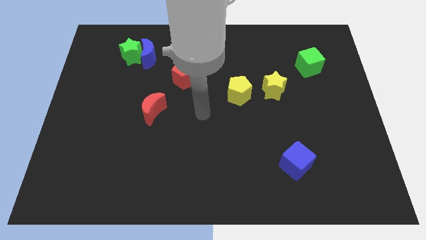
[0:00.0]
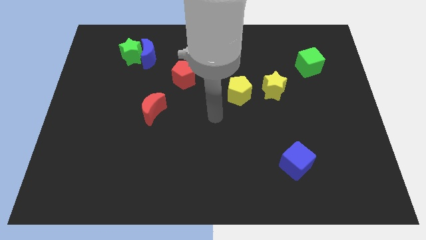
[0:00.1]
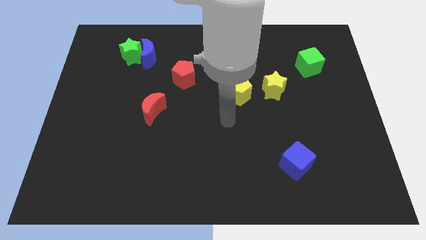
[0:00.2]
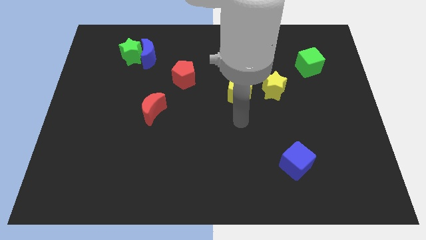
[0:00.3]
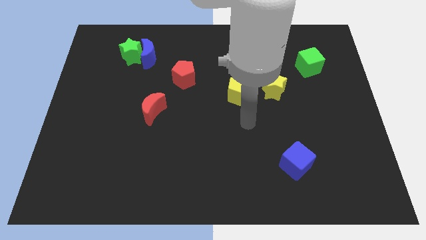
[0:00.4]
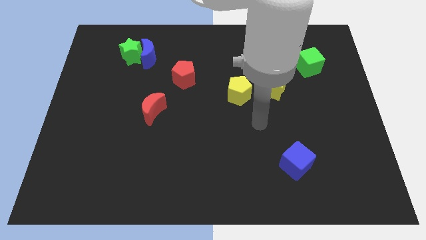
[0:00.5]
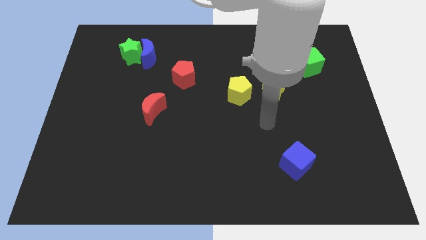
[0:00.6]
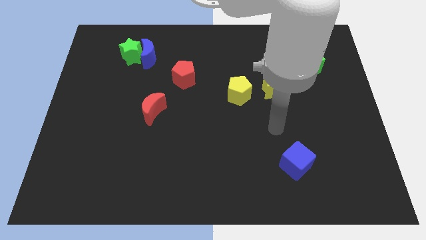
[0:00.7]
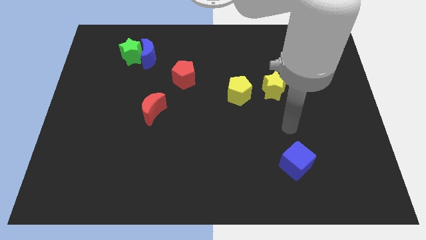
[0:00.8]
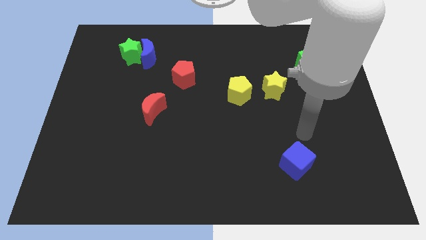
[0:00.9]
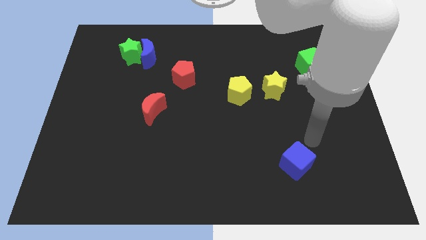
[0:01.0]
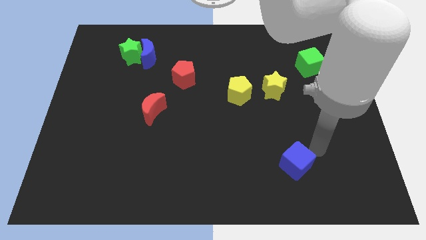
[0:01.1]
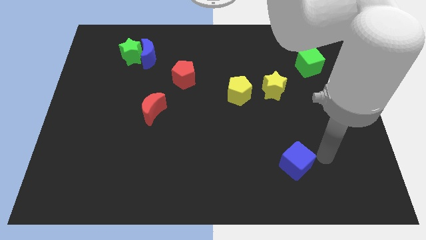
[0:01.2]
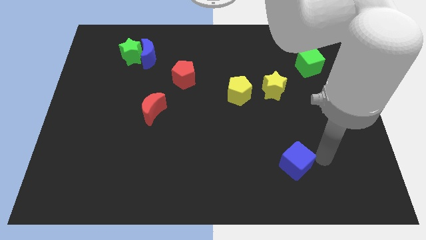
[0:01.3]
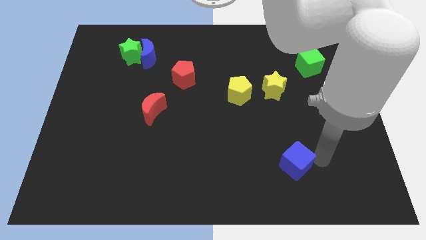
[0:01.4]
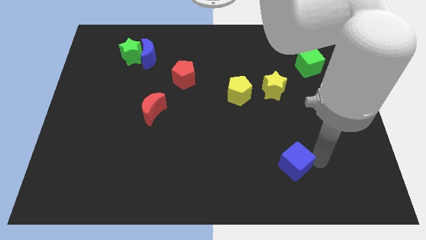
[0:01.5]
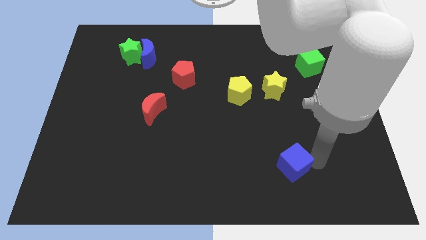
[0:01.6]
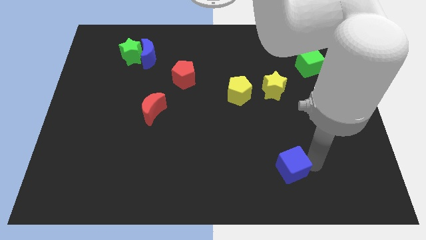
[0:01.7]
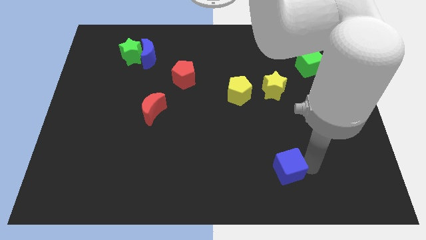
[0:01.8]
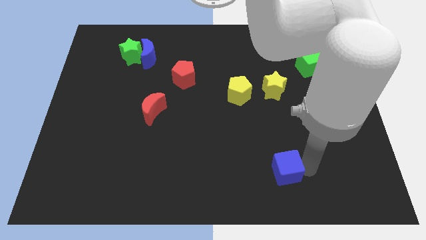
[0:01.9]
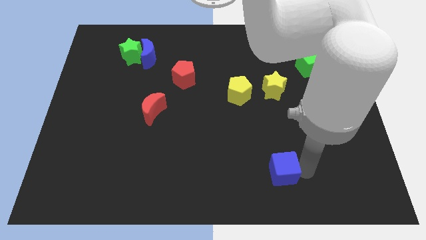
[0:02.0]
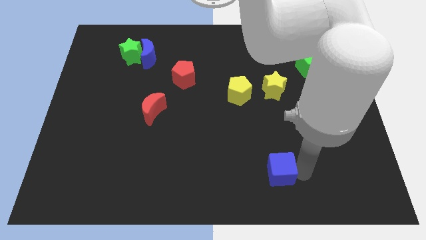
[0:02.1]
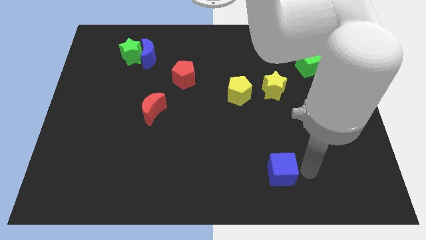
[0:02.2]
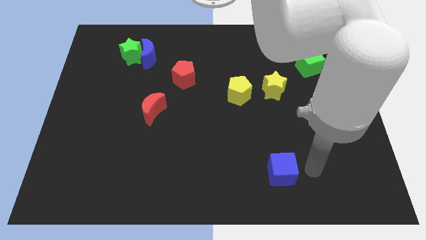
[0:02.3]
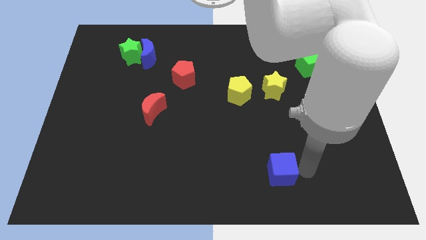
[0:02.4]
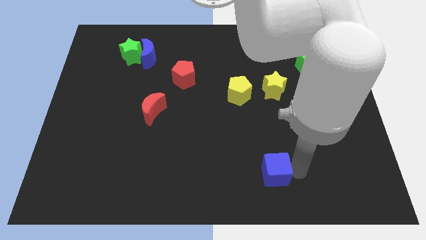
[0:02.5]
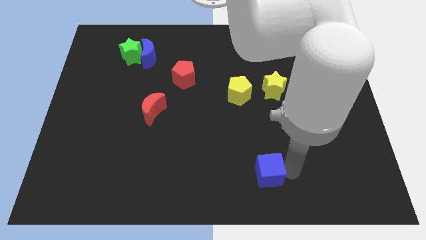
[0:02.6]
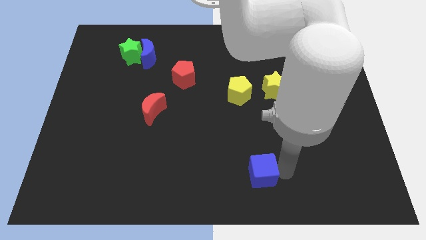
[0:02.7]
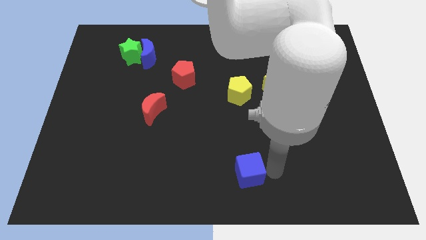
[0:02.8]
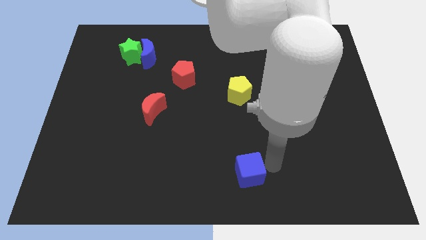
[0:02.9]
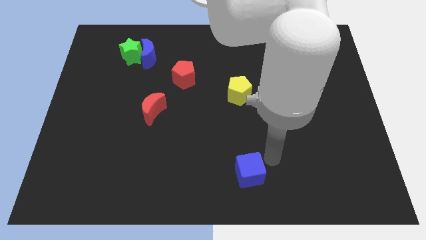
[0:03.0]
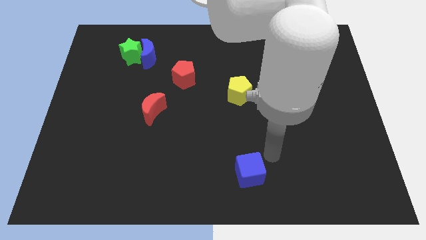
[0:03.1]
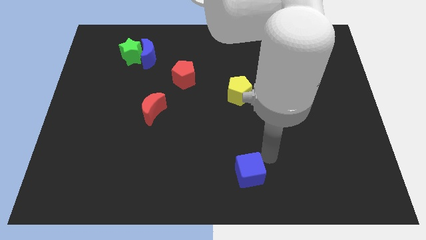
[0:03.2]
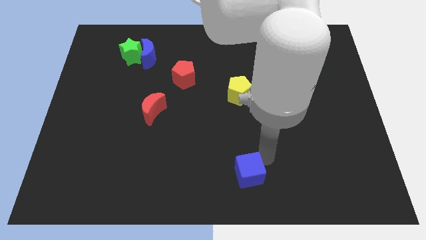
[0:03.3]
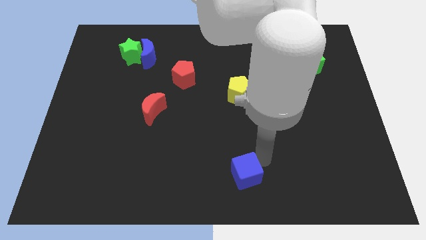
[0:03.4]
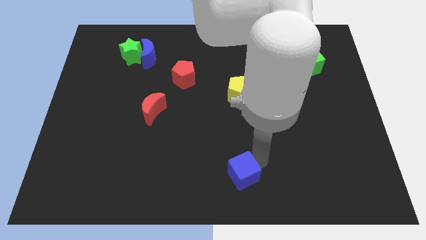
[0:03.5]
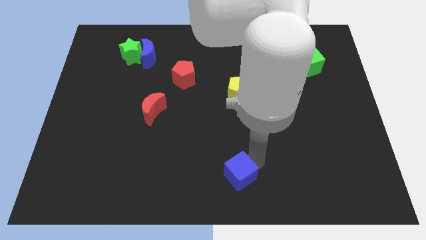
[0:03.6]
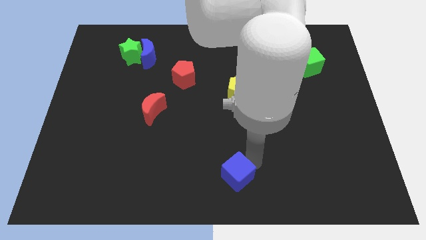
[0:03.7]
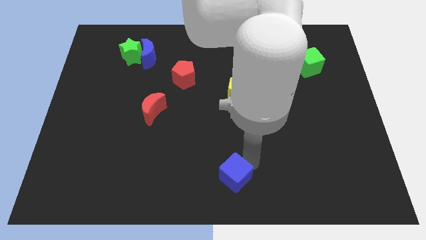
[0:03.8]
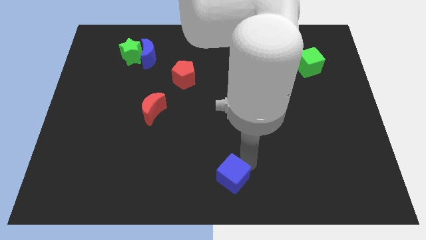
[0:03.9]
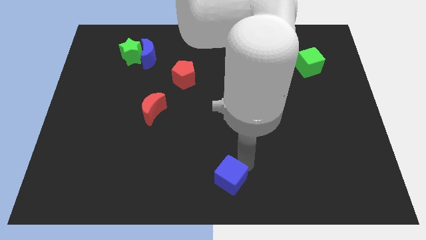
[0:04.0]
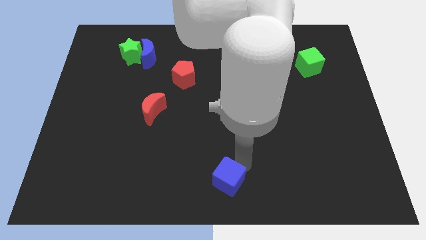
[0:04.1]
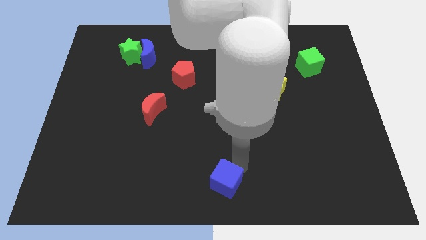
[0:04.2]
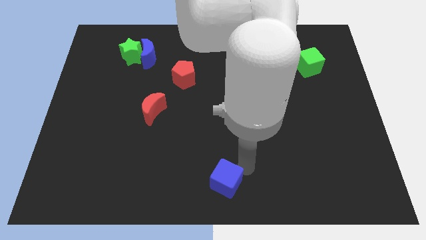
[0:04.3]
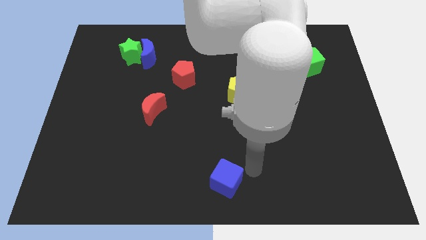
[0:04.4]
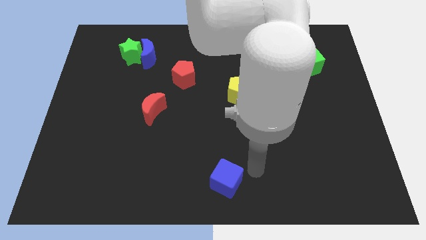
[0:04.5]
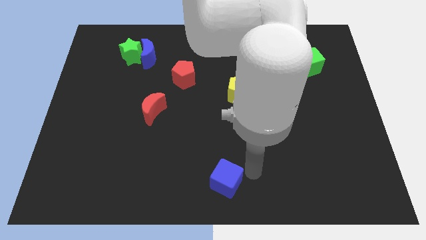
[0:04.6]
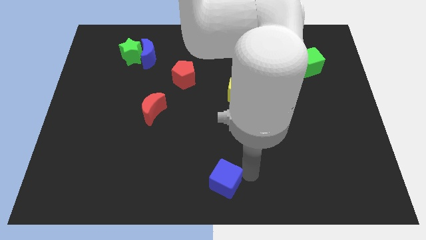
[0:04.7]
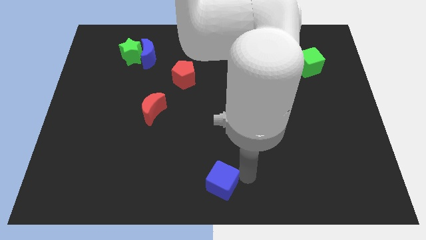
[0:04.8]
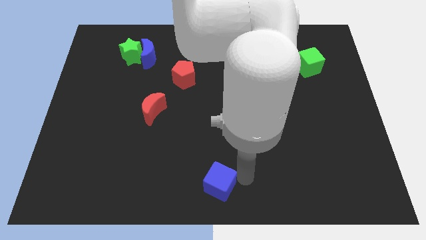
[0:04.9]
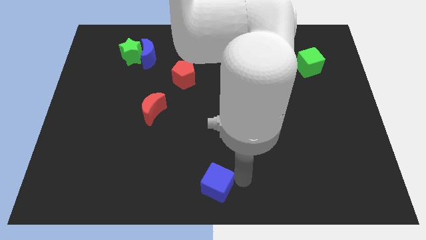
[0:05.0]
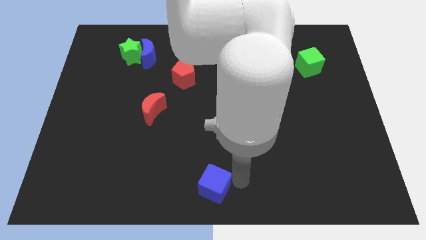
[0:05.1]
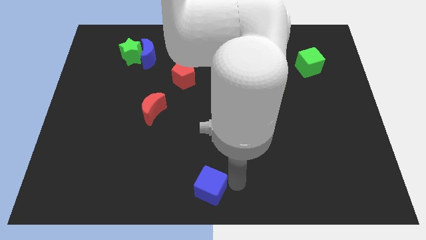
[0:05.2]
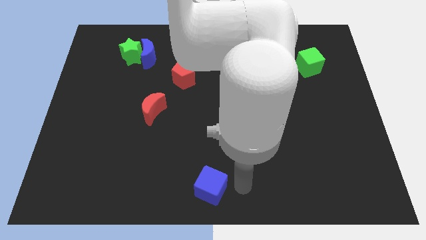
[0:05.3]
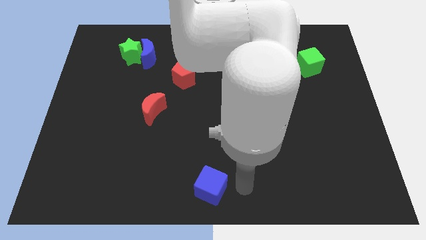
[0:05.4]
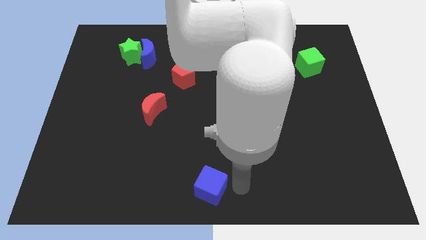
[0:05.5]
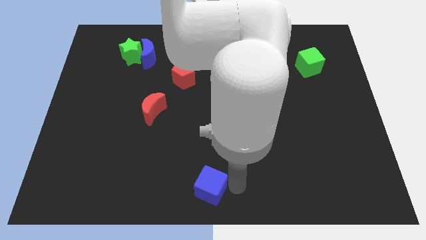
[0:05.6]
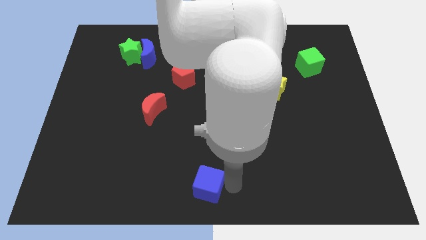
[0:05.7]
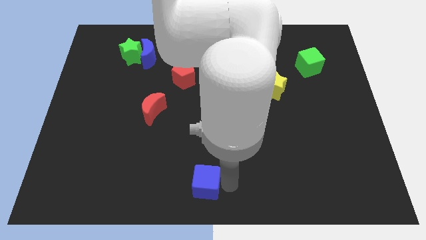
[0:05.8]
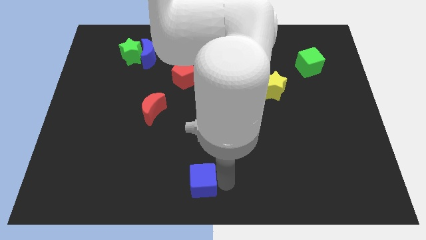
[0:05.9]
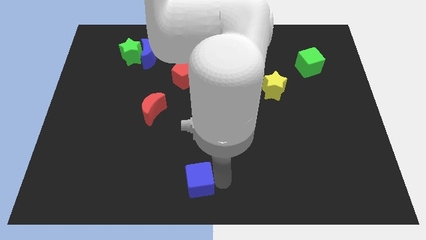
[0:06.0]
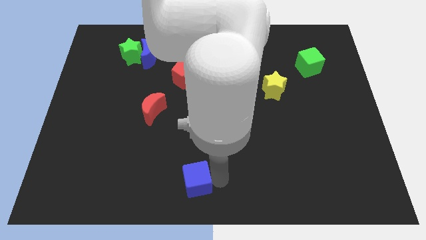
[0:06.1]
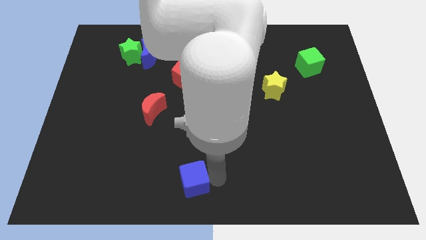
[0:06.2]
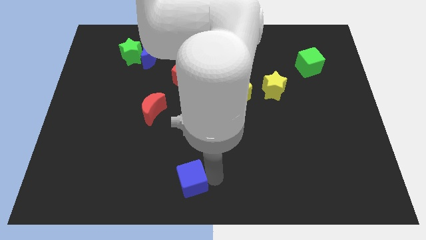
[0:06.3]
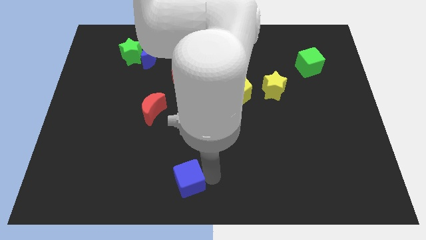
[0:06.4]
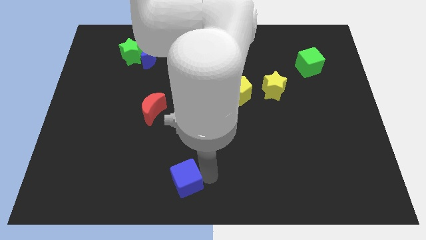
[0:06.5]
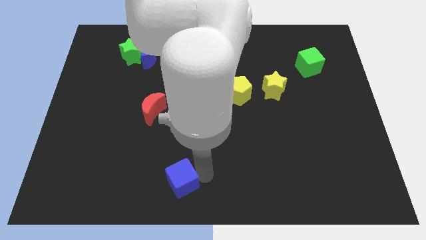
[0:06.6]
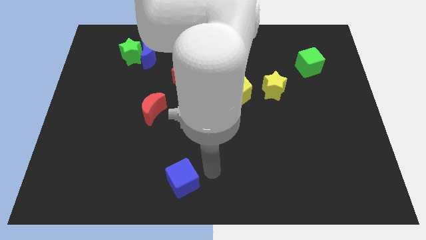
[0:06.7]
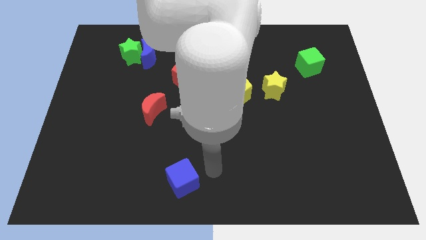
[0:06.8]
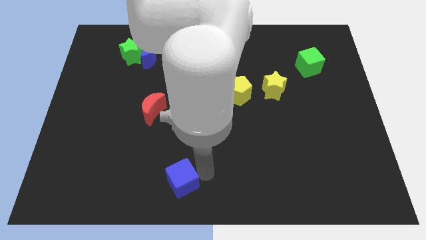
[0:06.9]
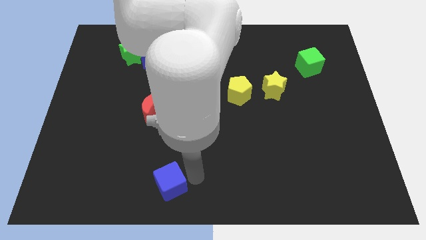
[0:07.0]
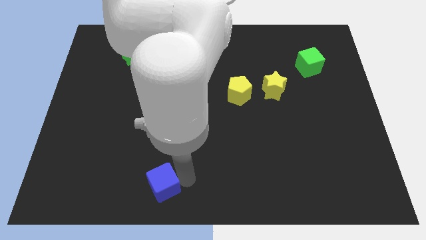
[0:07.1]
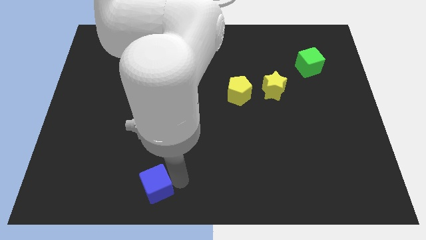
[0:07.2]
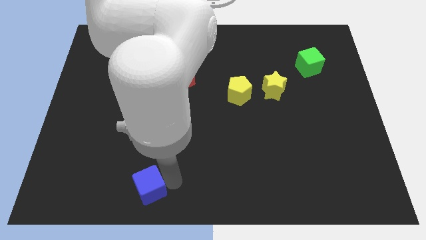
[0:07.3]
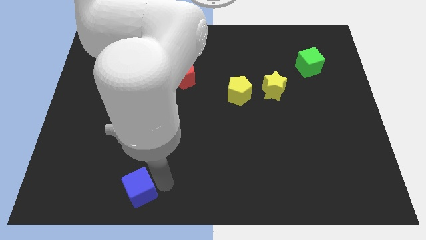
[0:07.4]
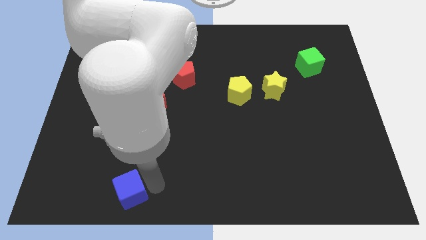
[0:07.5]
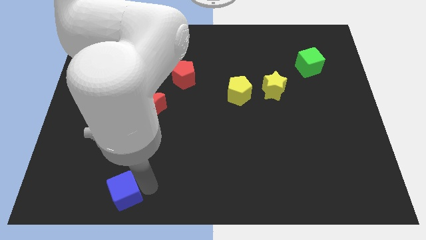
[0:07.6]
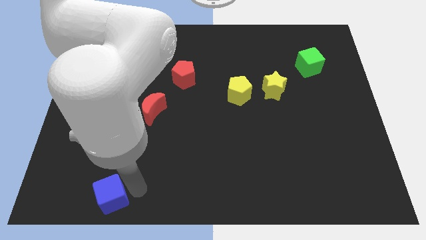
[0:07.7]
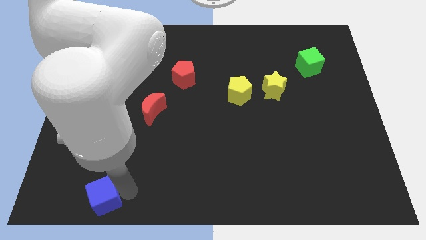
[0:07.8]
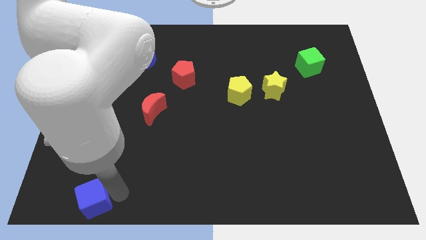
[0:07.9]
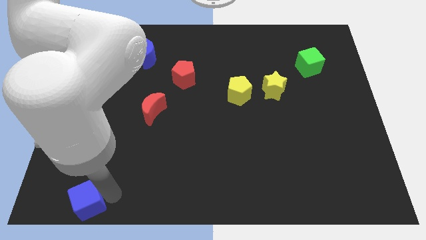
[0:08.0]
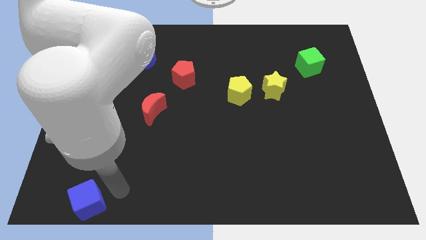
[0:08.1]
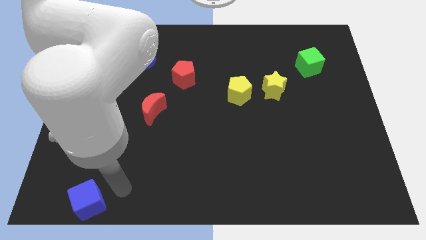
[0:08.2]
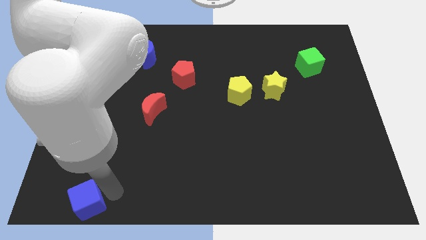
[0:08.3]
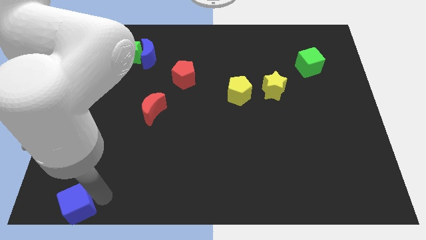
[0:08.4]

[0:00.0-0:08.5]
put the blue cube to the bottom left corner
